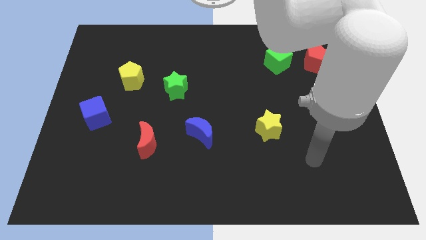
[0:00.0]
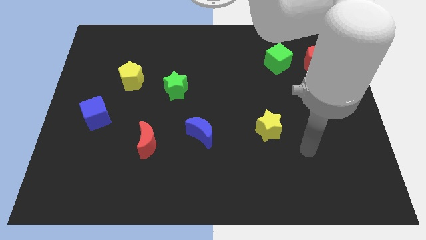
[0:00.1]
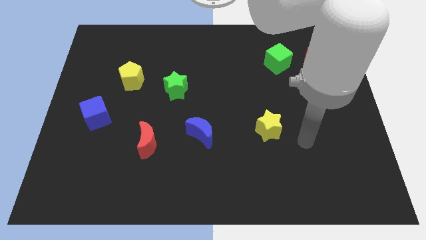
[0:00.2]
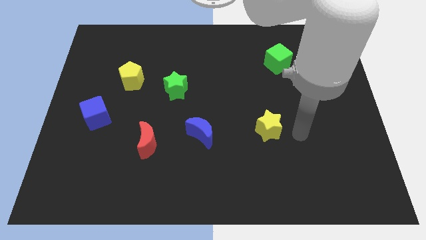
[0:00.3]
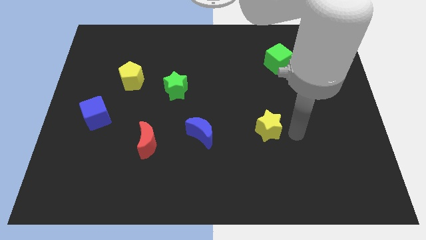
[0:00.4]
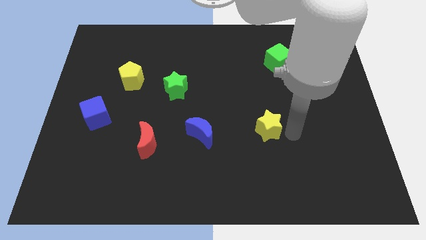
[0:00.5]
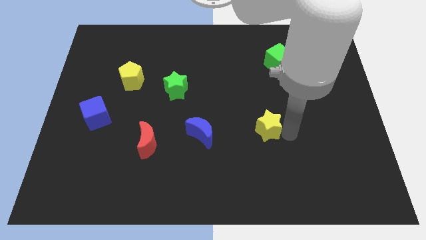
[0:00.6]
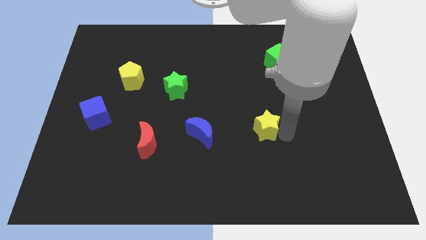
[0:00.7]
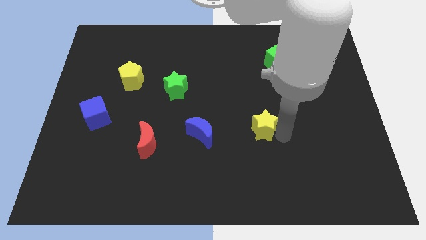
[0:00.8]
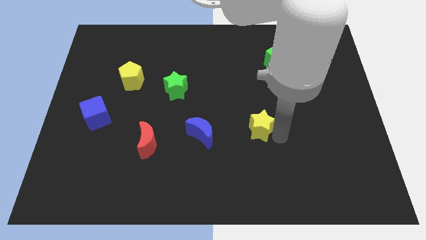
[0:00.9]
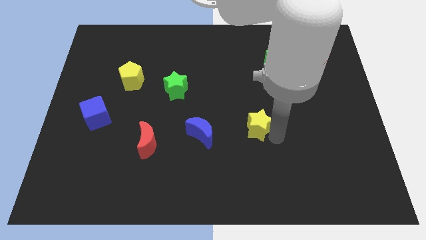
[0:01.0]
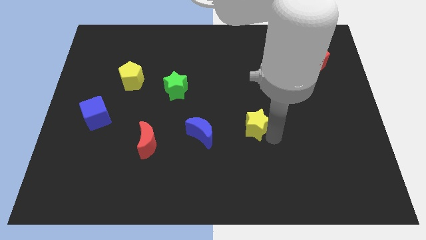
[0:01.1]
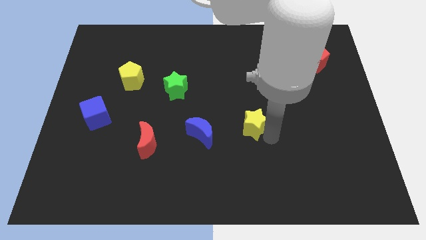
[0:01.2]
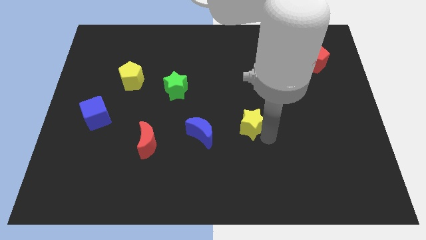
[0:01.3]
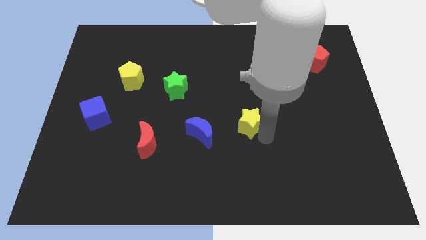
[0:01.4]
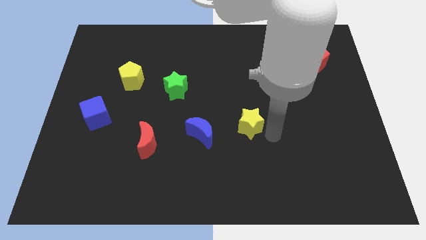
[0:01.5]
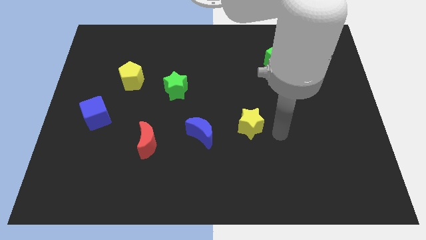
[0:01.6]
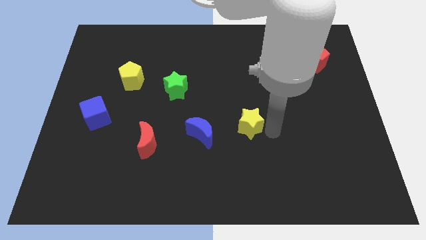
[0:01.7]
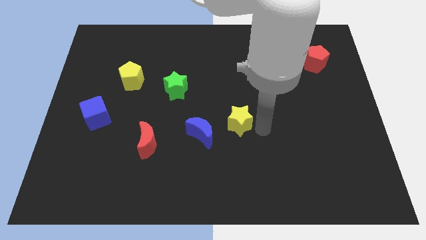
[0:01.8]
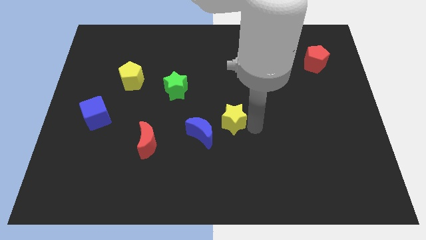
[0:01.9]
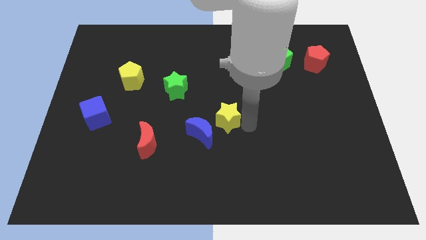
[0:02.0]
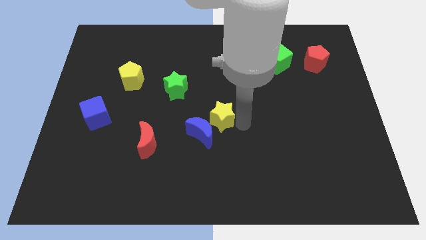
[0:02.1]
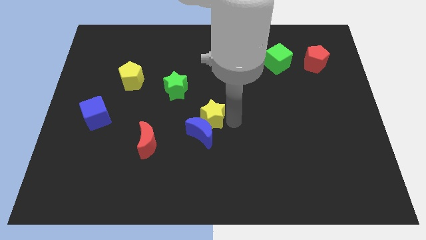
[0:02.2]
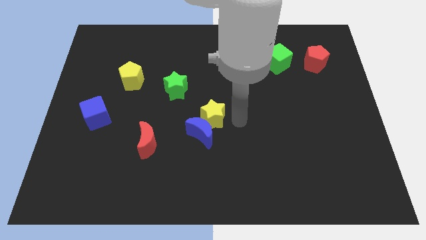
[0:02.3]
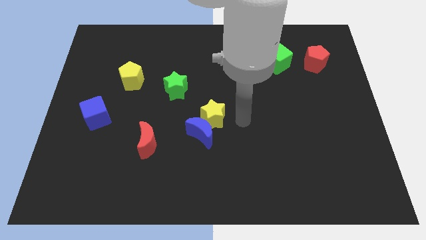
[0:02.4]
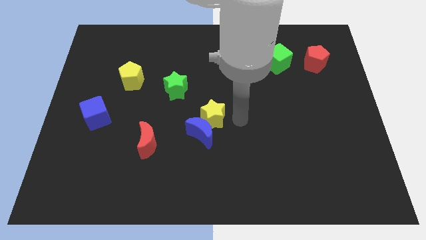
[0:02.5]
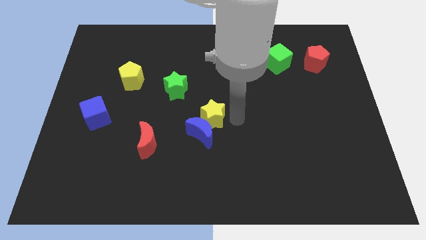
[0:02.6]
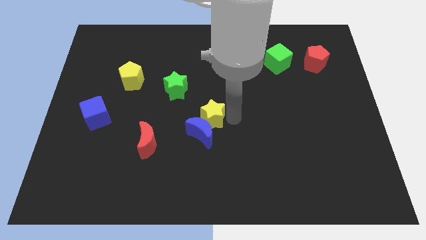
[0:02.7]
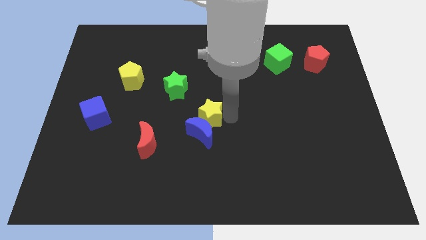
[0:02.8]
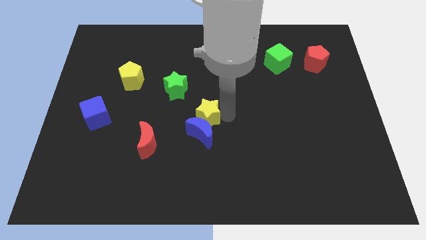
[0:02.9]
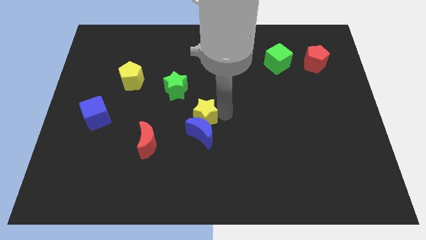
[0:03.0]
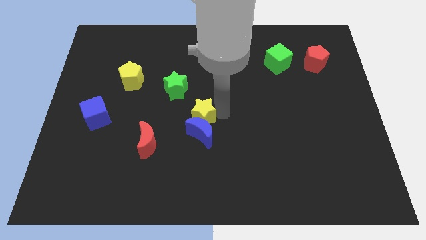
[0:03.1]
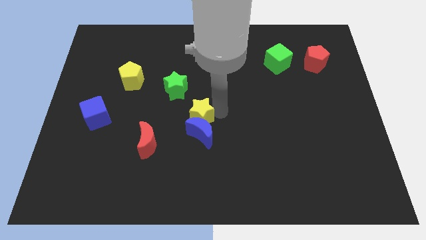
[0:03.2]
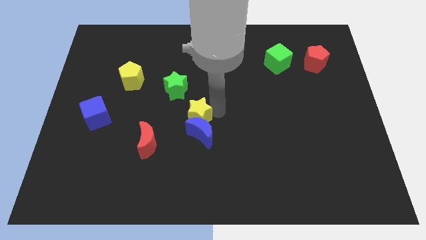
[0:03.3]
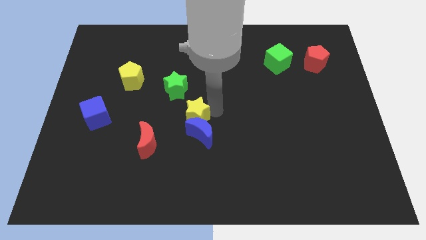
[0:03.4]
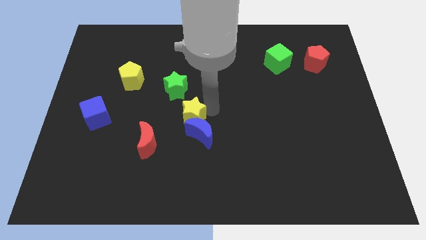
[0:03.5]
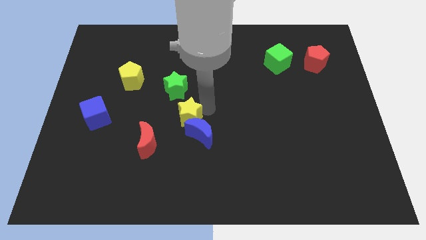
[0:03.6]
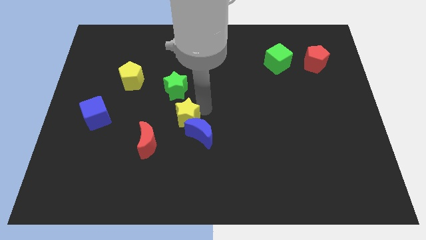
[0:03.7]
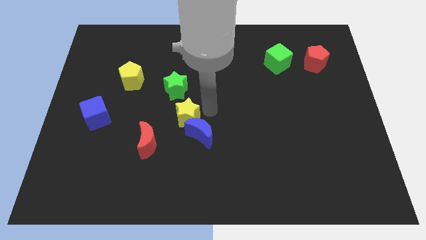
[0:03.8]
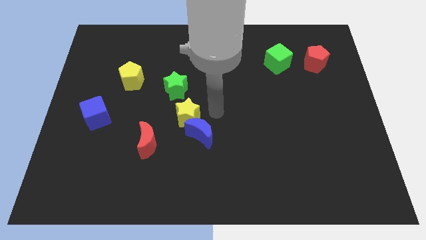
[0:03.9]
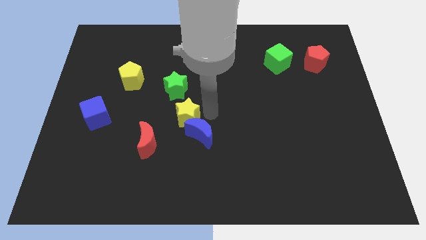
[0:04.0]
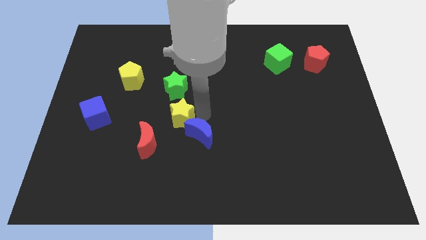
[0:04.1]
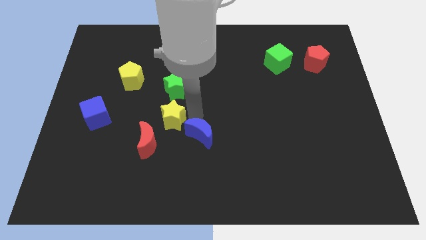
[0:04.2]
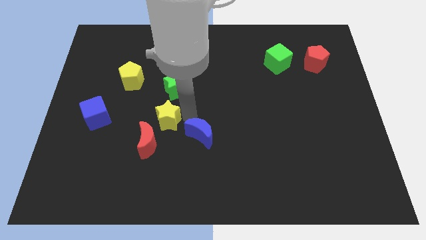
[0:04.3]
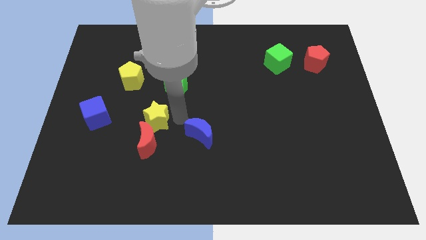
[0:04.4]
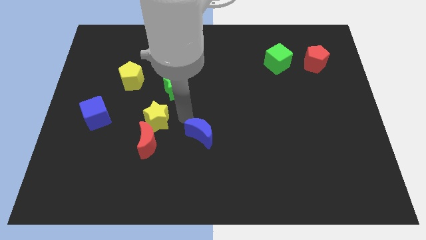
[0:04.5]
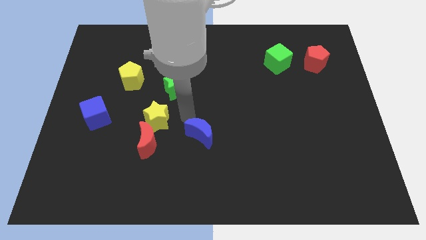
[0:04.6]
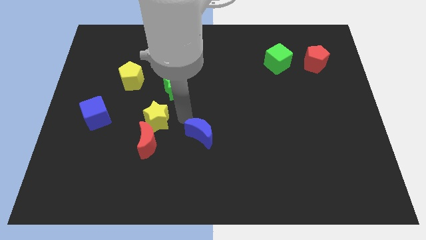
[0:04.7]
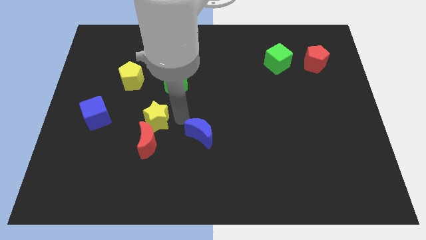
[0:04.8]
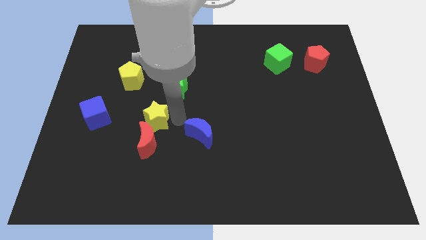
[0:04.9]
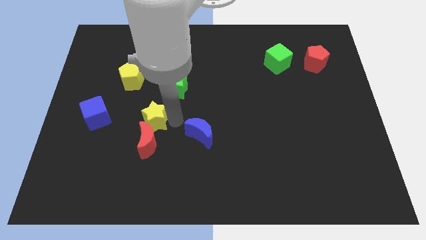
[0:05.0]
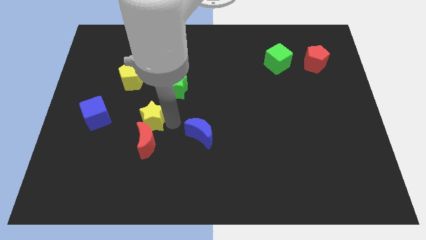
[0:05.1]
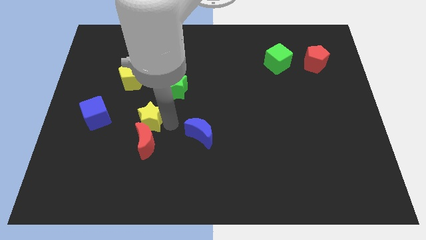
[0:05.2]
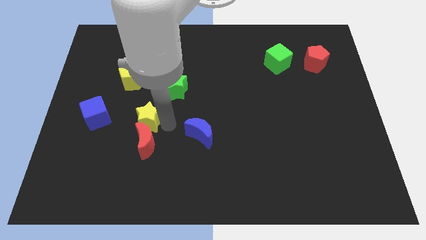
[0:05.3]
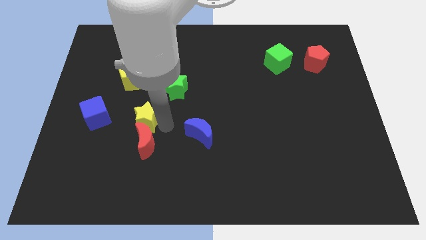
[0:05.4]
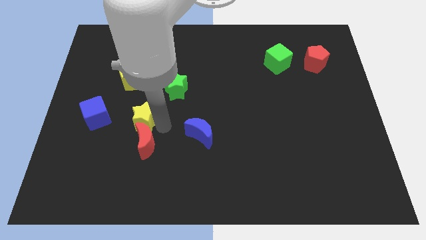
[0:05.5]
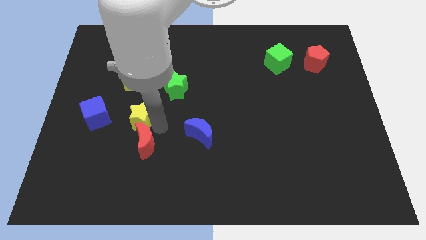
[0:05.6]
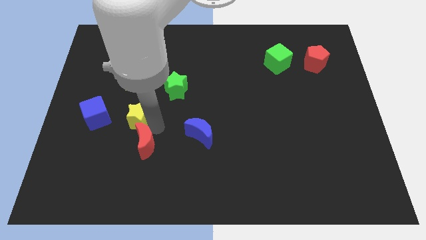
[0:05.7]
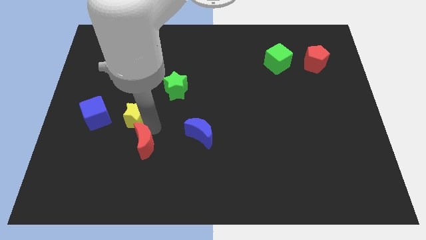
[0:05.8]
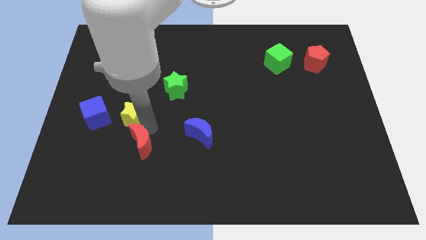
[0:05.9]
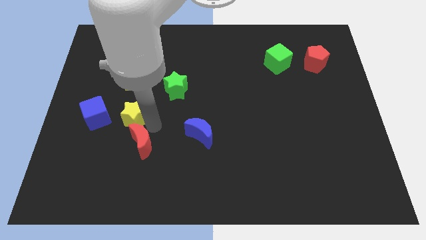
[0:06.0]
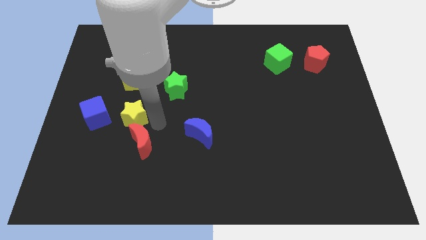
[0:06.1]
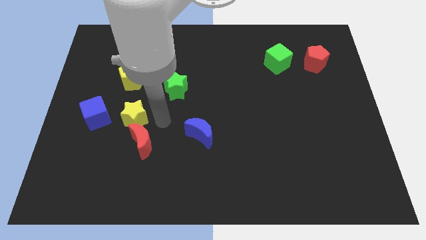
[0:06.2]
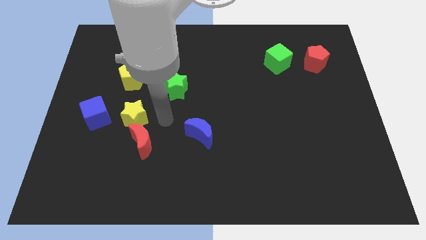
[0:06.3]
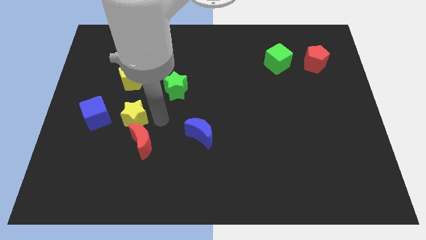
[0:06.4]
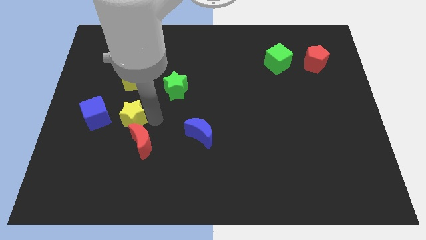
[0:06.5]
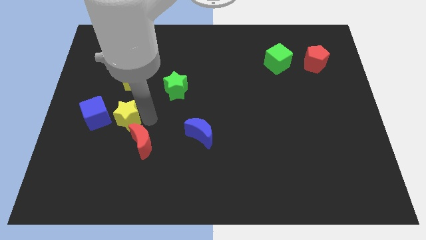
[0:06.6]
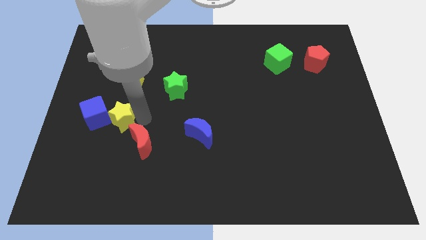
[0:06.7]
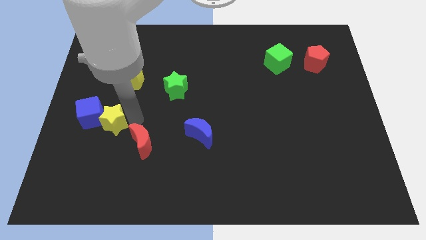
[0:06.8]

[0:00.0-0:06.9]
slide the yellow star to the blue cube
